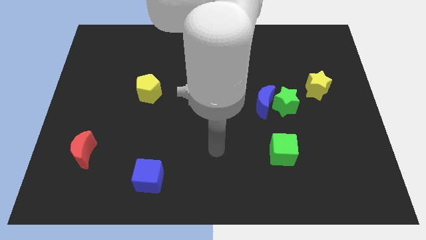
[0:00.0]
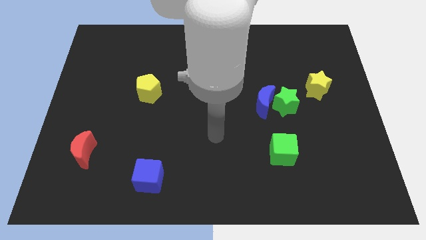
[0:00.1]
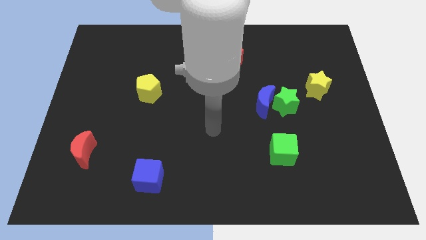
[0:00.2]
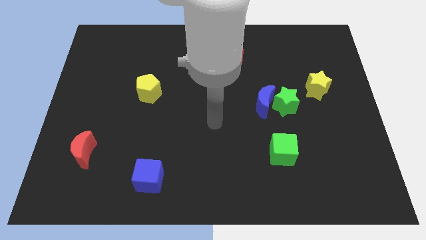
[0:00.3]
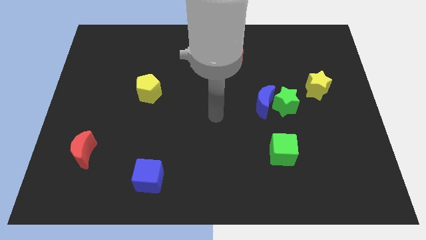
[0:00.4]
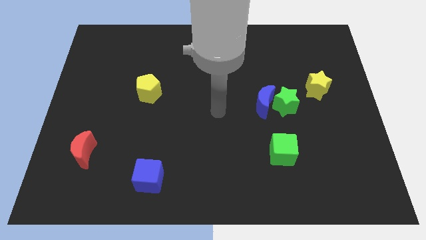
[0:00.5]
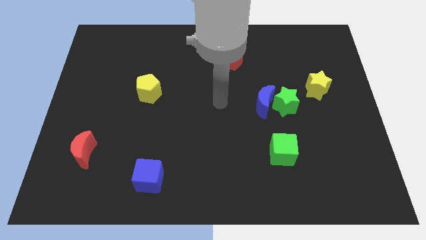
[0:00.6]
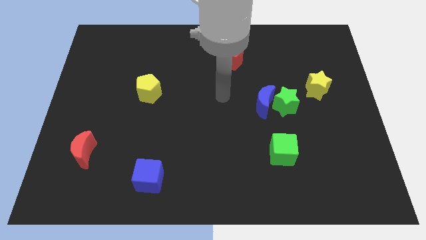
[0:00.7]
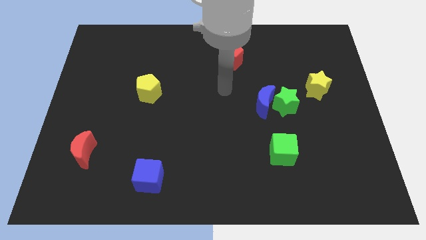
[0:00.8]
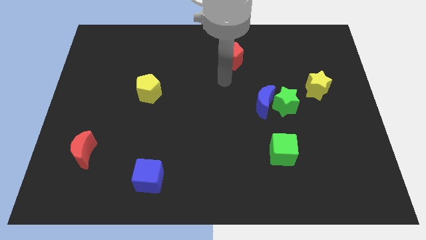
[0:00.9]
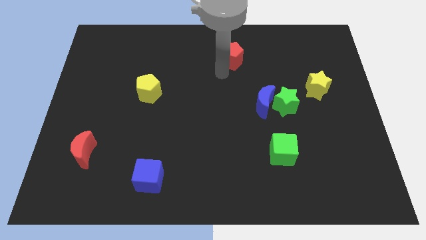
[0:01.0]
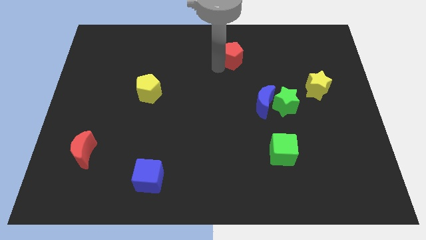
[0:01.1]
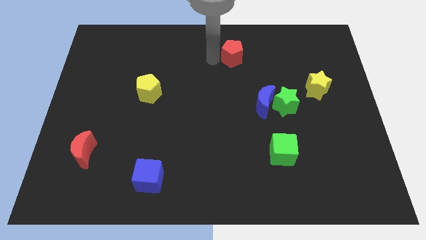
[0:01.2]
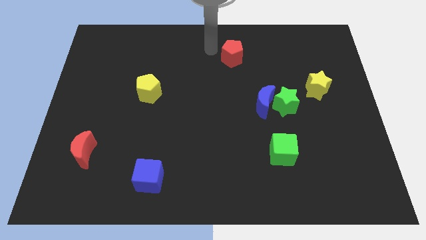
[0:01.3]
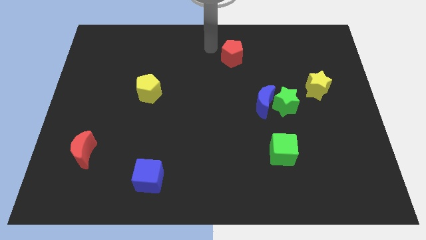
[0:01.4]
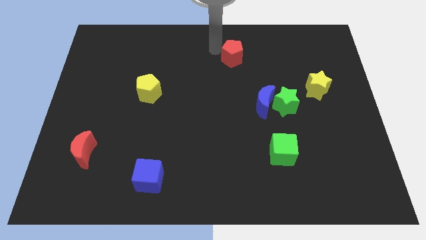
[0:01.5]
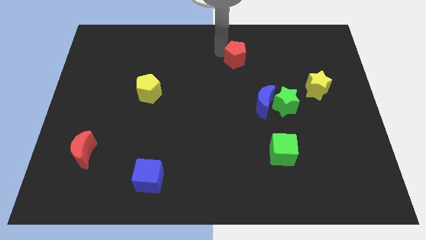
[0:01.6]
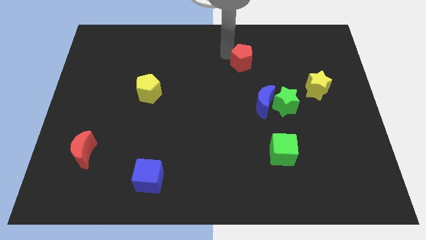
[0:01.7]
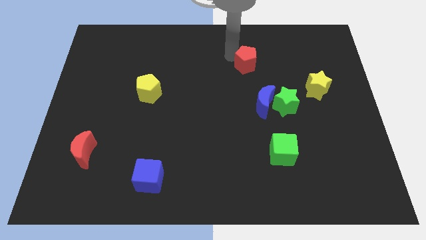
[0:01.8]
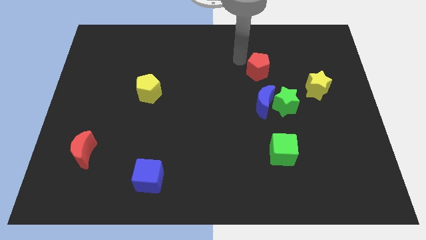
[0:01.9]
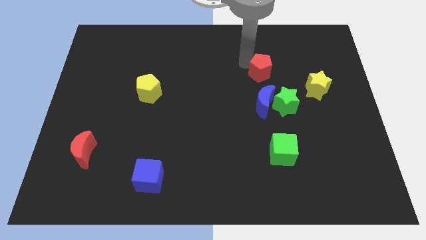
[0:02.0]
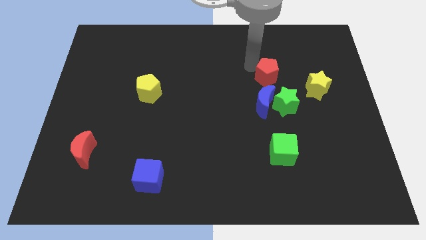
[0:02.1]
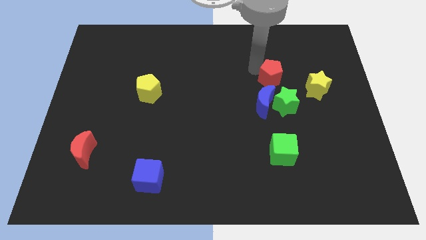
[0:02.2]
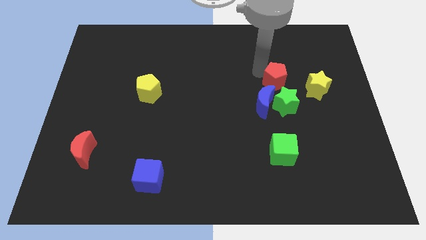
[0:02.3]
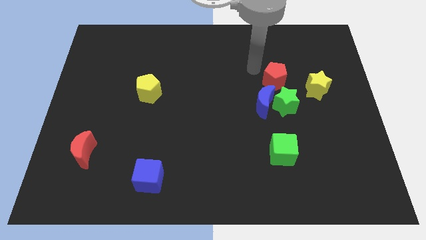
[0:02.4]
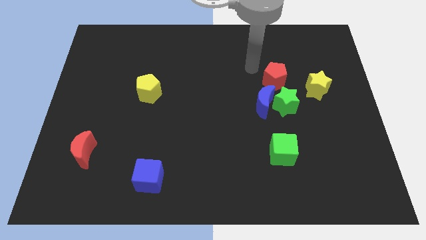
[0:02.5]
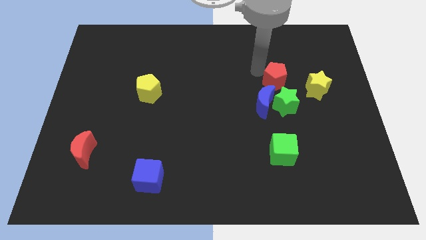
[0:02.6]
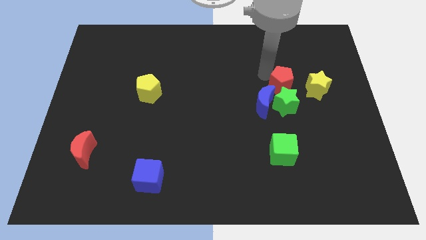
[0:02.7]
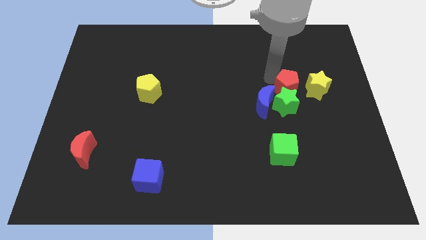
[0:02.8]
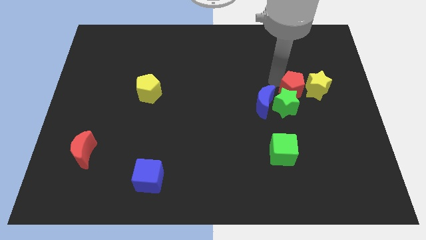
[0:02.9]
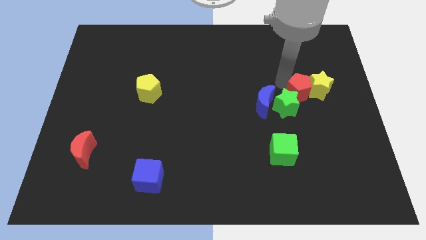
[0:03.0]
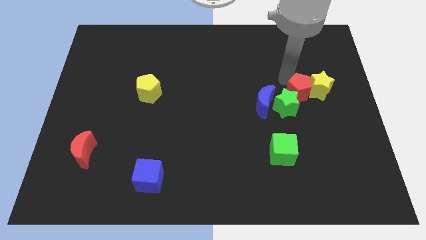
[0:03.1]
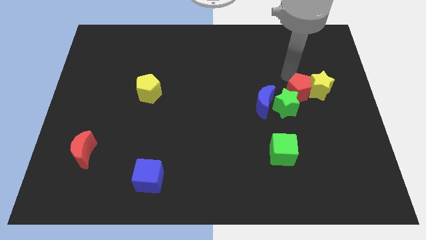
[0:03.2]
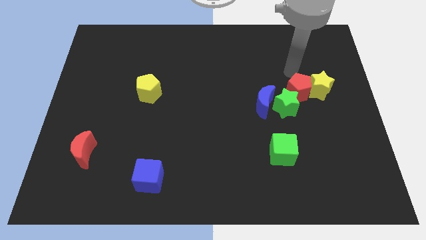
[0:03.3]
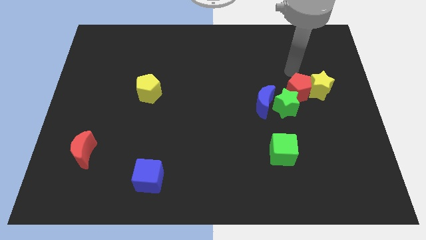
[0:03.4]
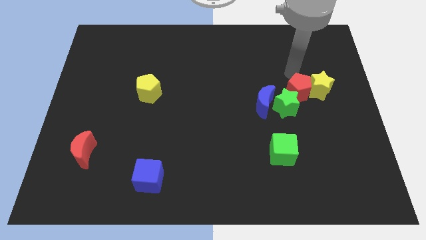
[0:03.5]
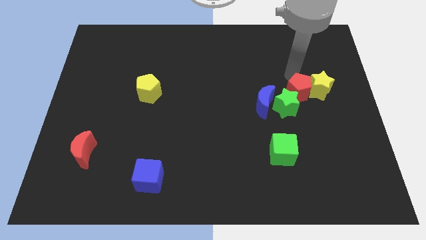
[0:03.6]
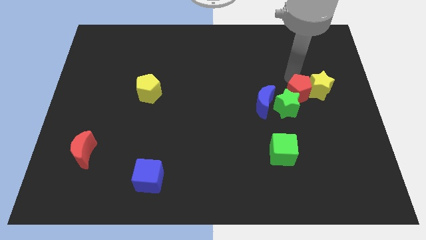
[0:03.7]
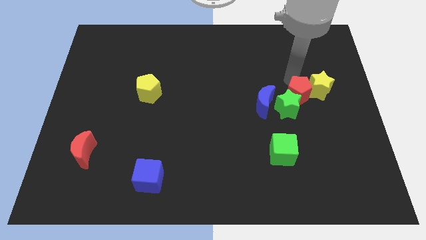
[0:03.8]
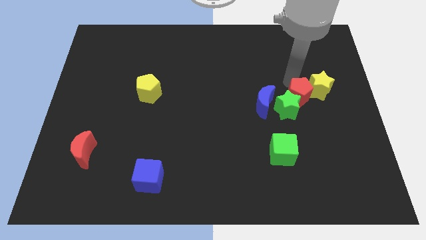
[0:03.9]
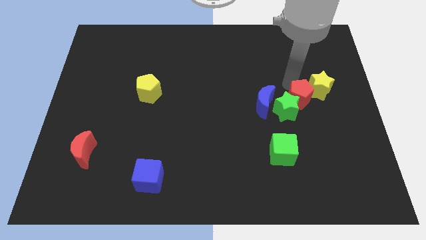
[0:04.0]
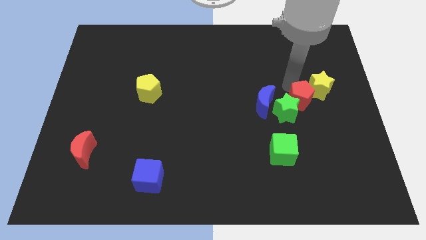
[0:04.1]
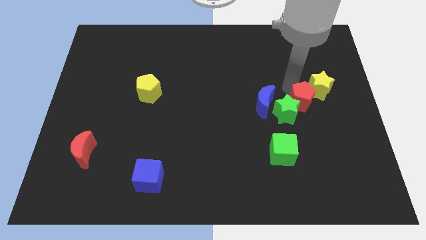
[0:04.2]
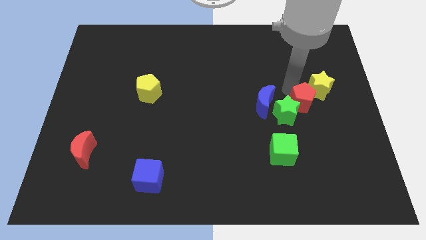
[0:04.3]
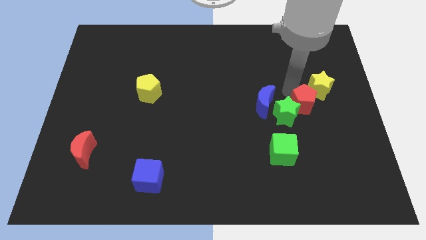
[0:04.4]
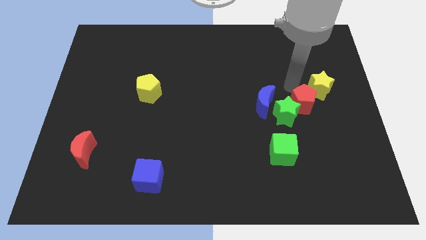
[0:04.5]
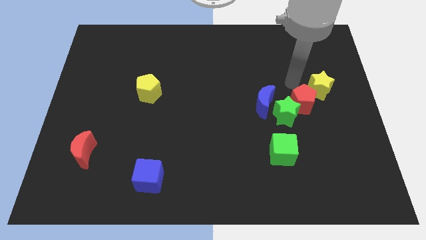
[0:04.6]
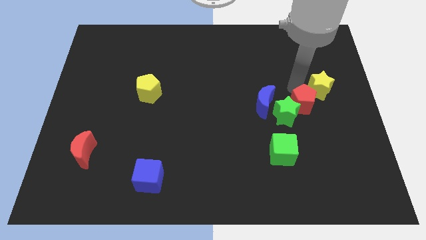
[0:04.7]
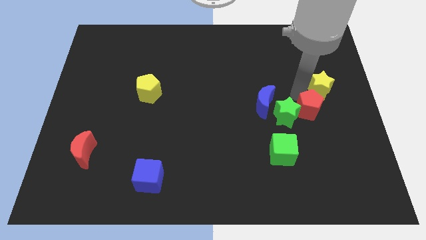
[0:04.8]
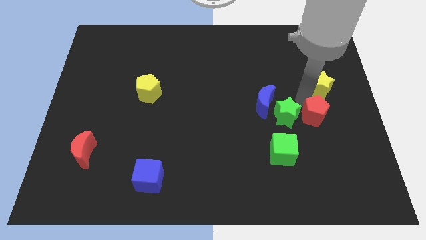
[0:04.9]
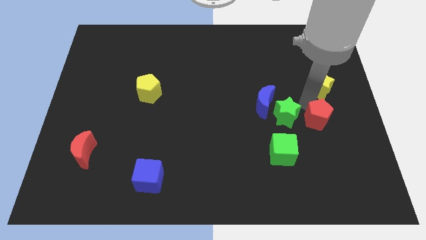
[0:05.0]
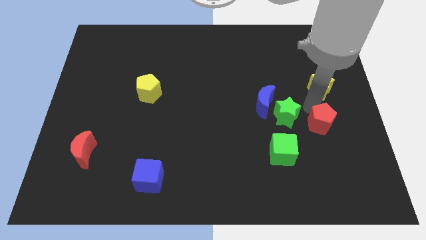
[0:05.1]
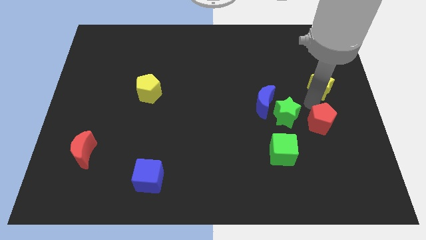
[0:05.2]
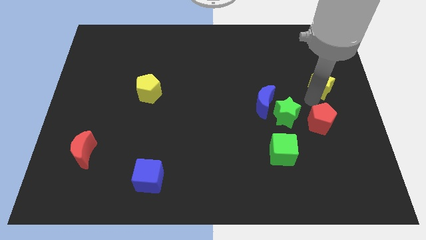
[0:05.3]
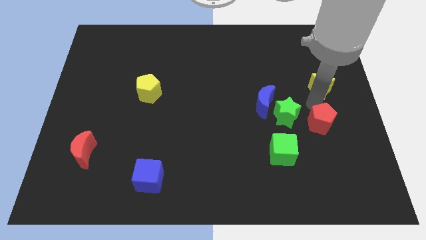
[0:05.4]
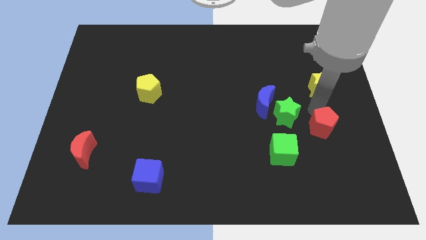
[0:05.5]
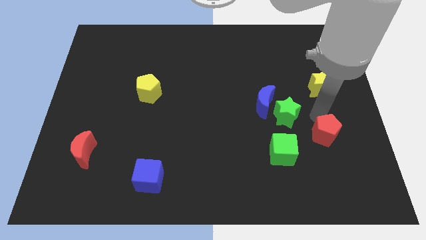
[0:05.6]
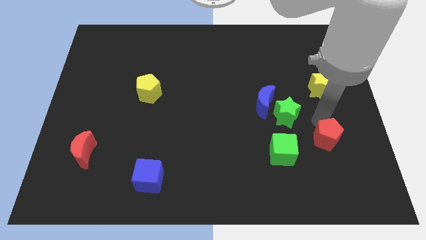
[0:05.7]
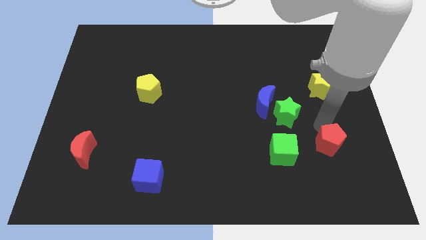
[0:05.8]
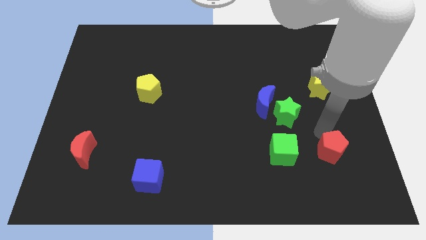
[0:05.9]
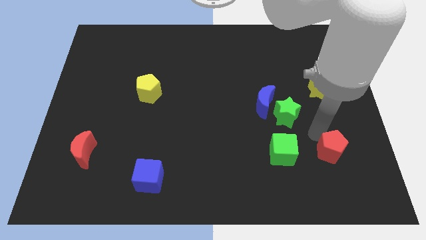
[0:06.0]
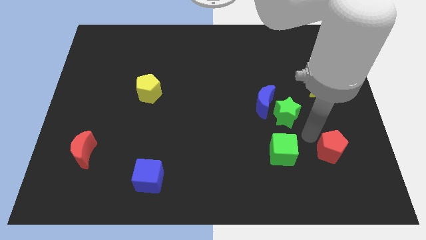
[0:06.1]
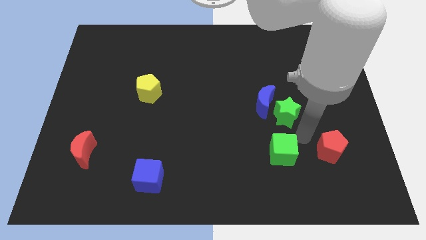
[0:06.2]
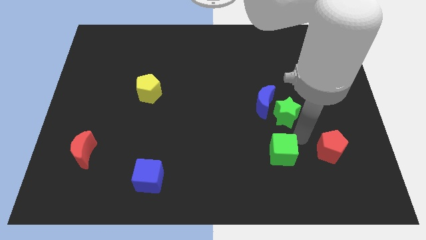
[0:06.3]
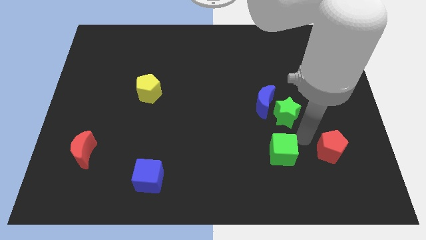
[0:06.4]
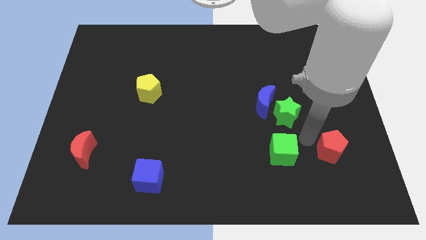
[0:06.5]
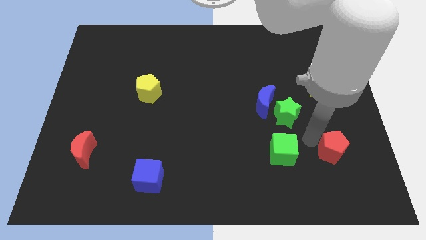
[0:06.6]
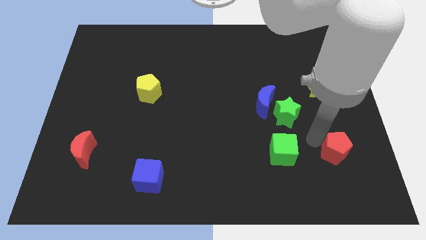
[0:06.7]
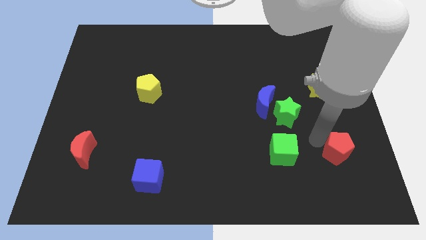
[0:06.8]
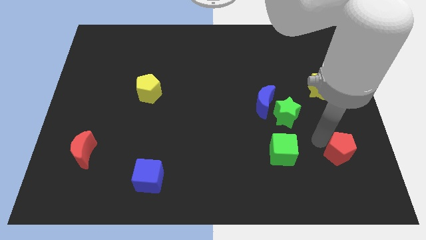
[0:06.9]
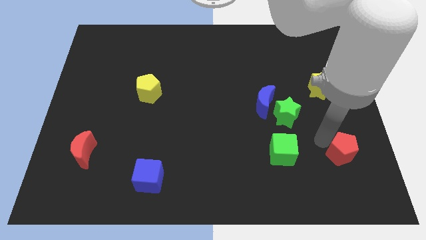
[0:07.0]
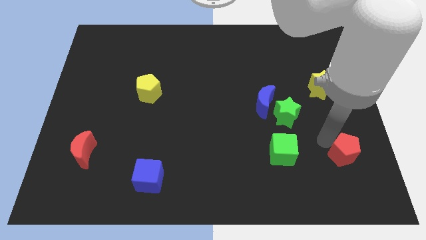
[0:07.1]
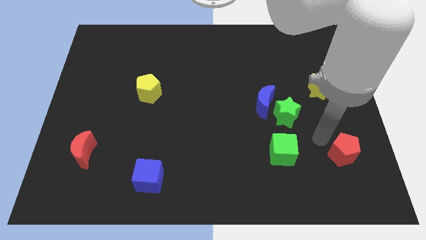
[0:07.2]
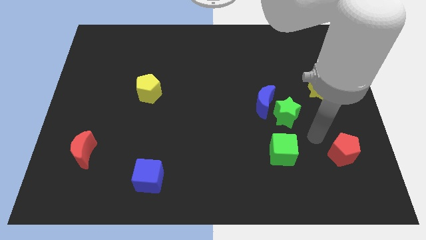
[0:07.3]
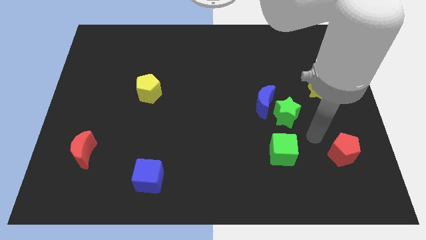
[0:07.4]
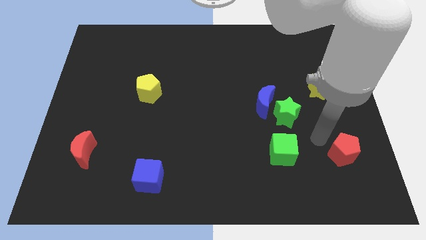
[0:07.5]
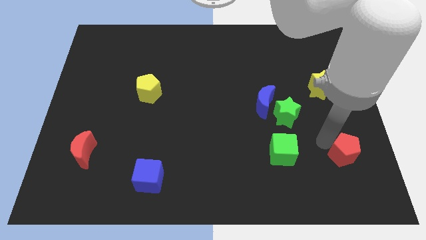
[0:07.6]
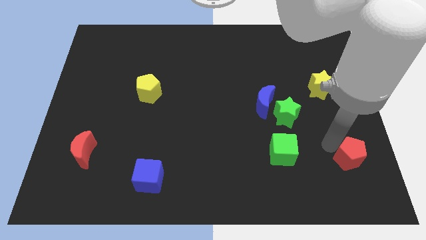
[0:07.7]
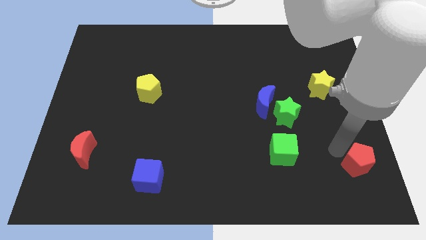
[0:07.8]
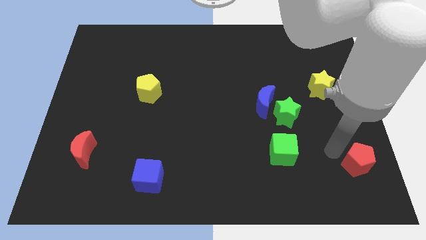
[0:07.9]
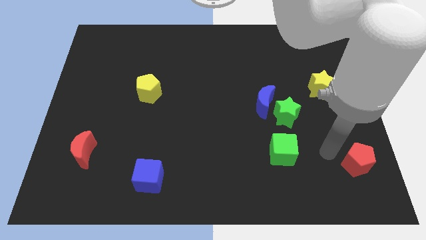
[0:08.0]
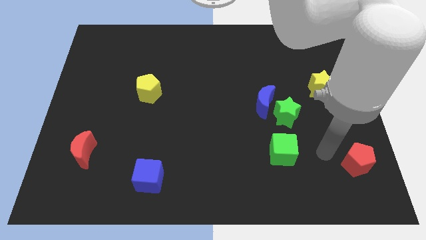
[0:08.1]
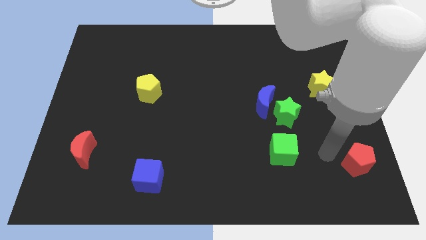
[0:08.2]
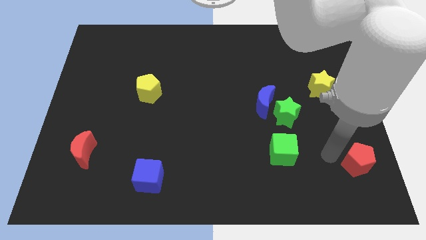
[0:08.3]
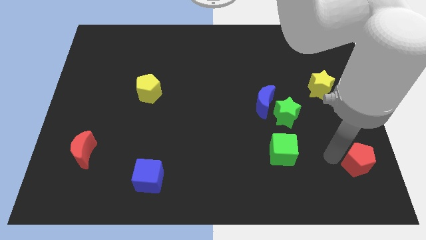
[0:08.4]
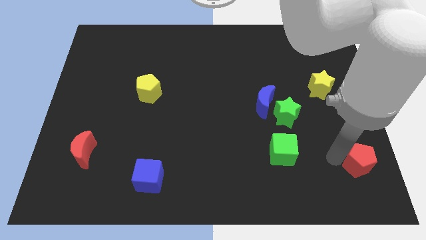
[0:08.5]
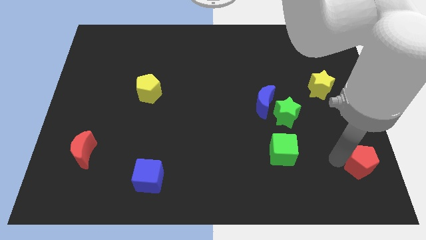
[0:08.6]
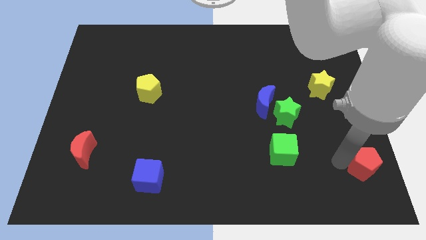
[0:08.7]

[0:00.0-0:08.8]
put the red pentagon to the bottom right corner
